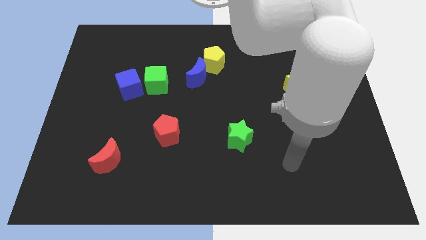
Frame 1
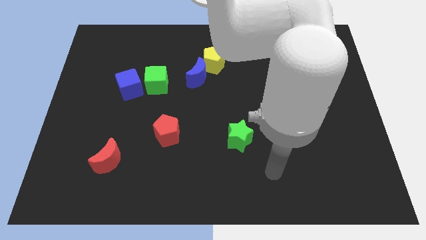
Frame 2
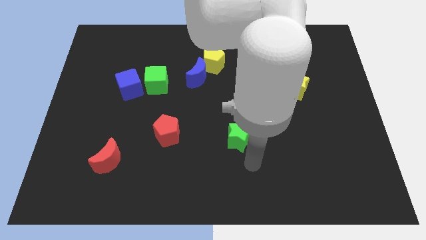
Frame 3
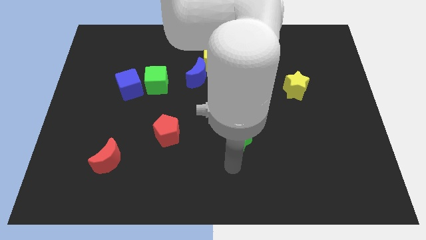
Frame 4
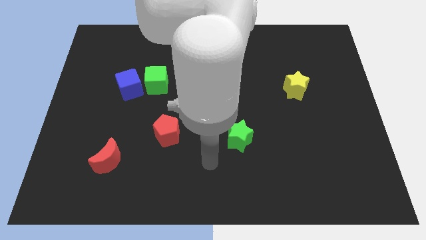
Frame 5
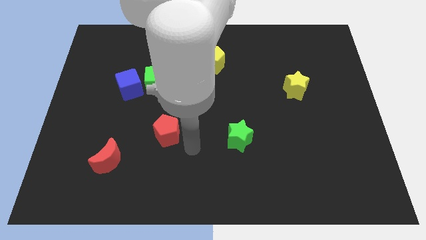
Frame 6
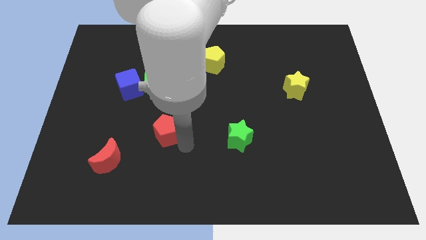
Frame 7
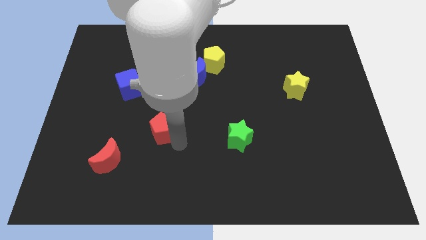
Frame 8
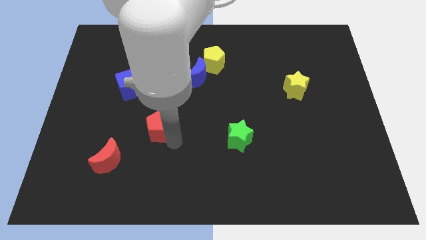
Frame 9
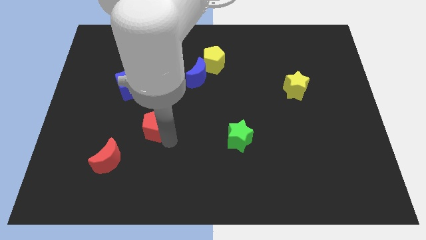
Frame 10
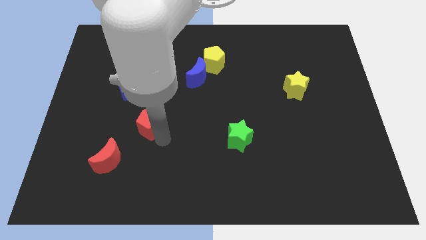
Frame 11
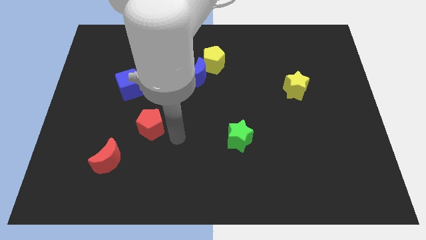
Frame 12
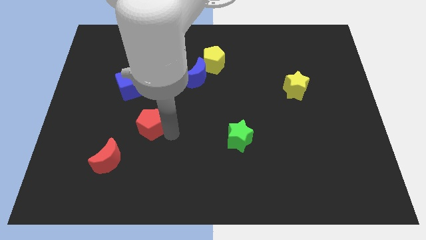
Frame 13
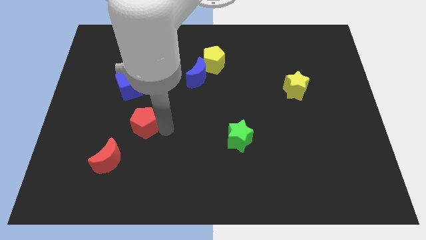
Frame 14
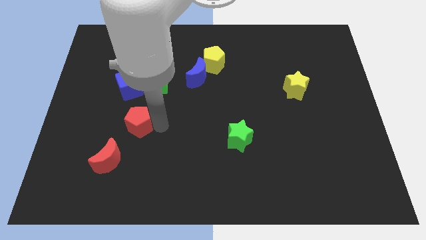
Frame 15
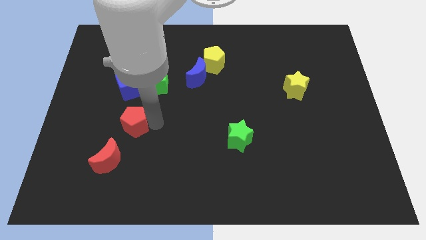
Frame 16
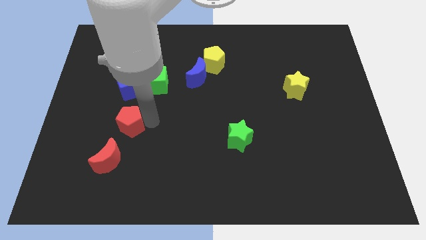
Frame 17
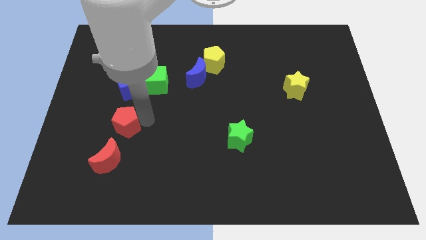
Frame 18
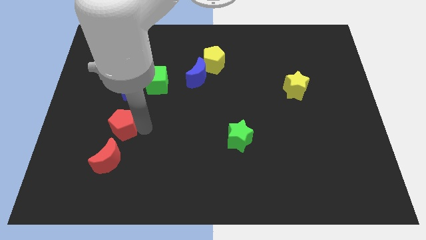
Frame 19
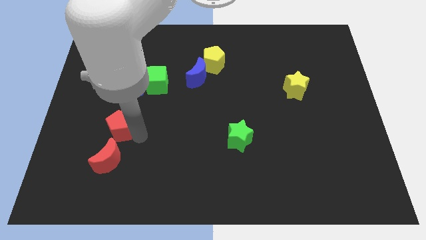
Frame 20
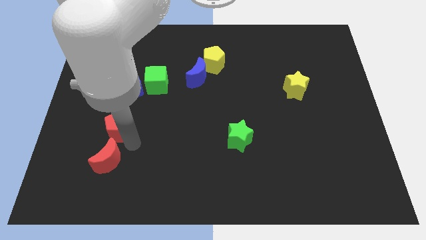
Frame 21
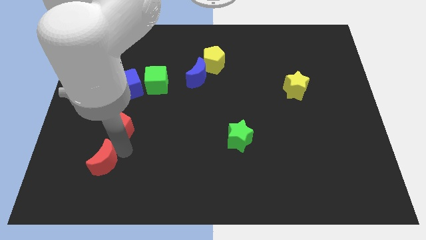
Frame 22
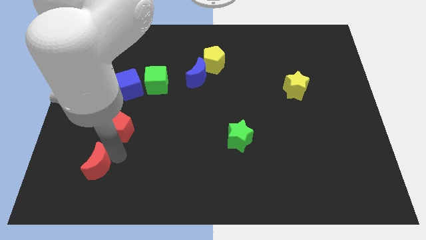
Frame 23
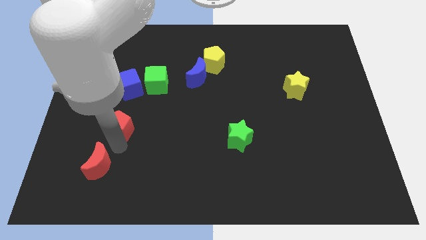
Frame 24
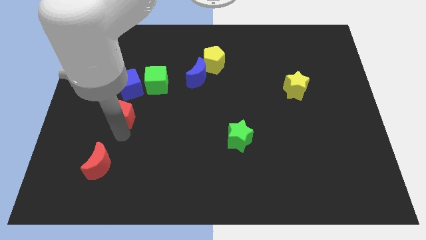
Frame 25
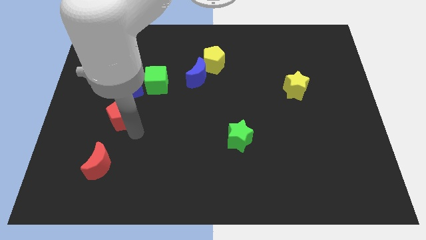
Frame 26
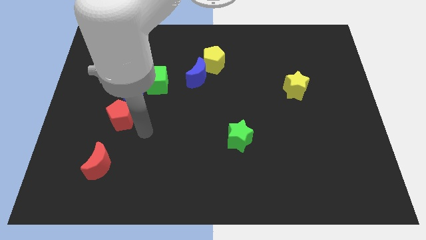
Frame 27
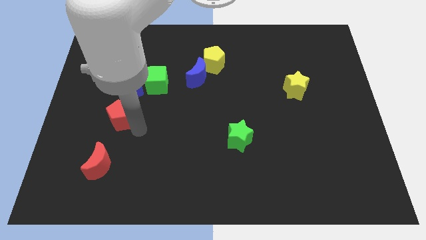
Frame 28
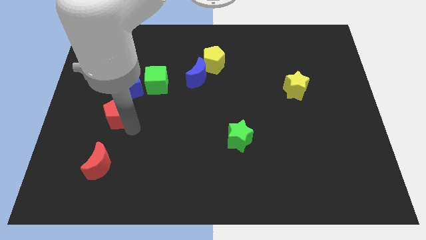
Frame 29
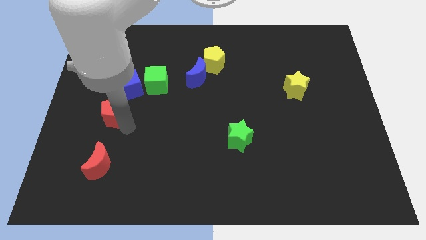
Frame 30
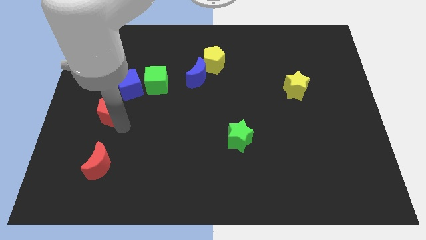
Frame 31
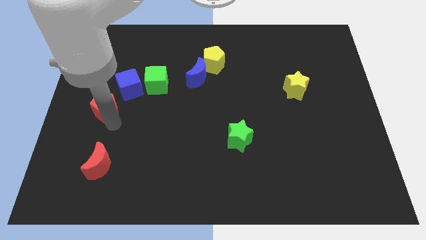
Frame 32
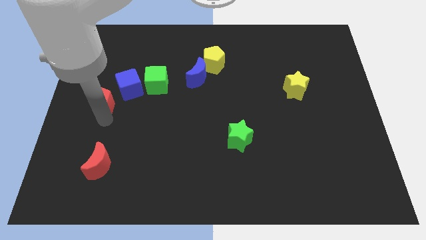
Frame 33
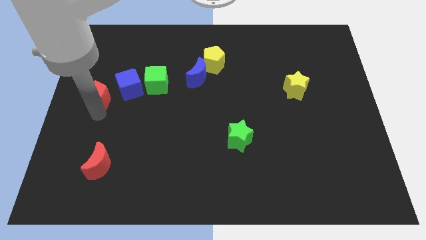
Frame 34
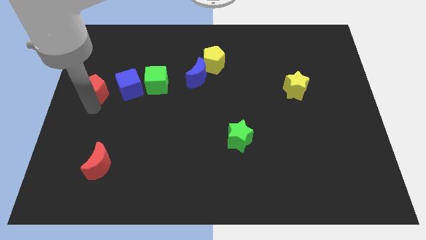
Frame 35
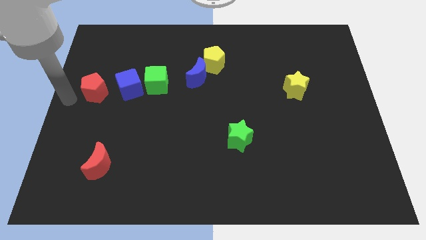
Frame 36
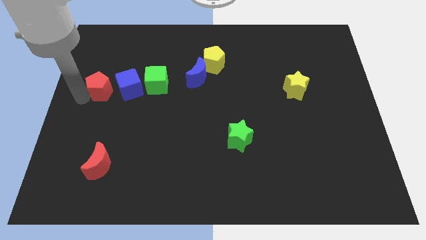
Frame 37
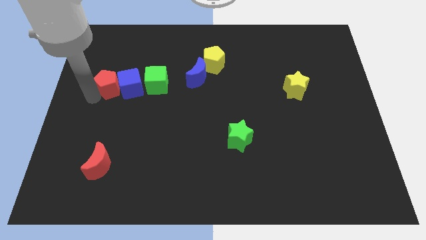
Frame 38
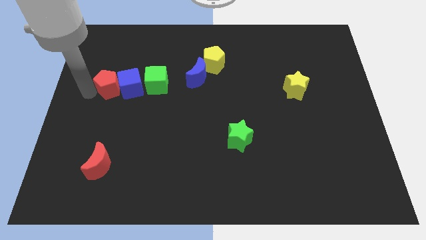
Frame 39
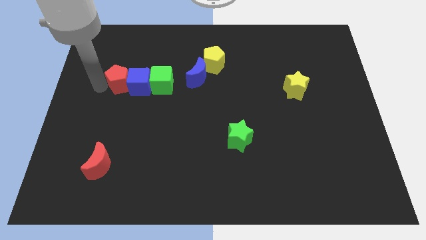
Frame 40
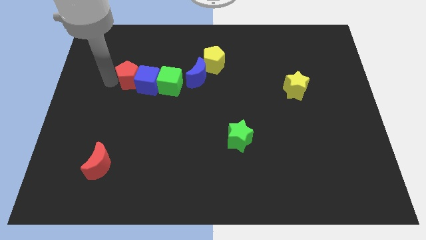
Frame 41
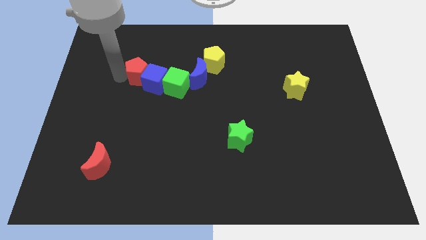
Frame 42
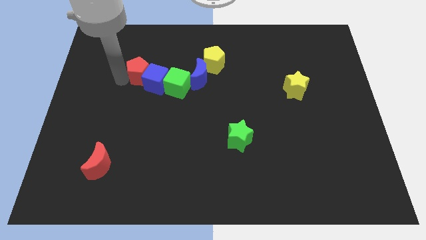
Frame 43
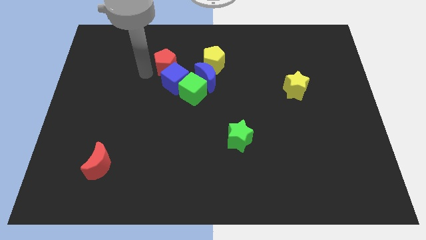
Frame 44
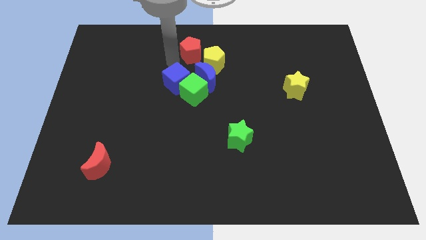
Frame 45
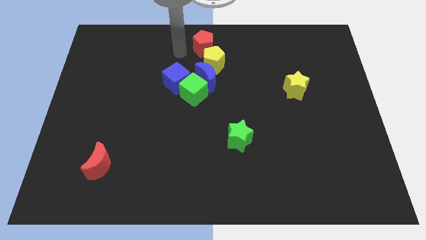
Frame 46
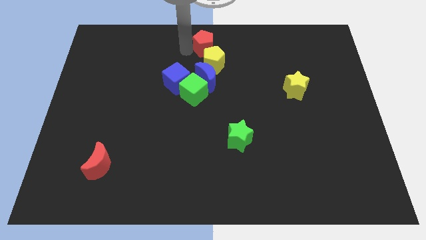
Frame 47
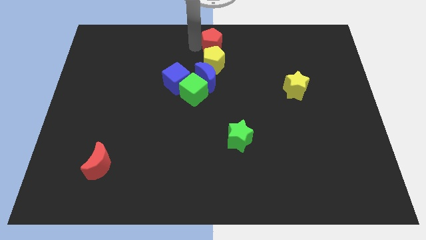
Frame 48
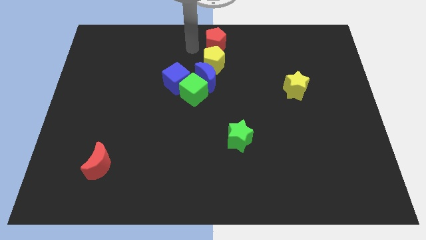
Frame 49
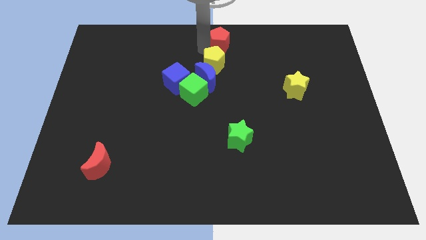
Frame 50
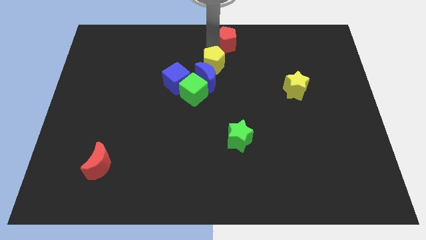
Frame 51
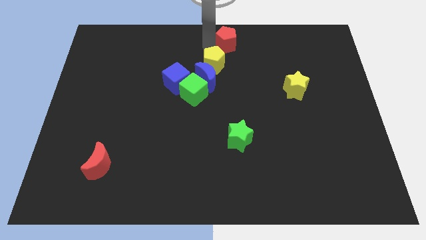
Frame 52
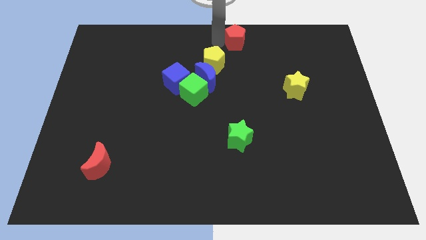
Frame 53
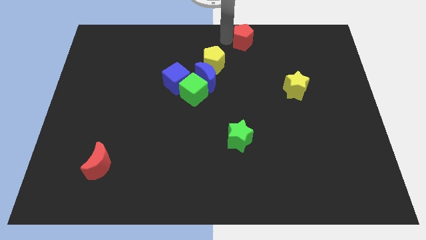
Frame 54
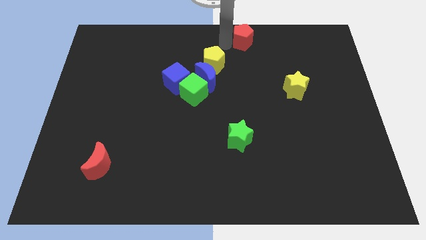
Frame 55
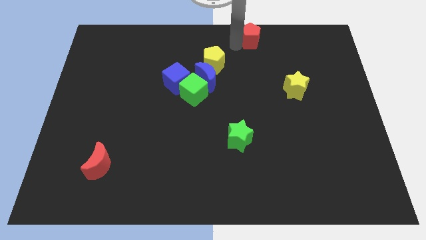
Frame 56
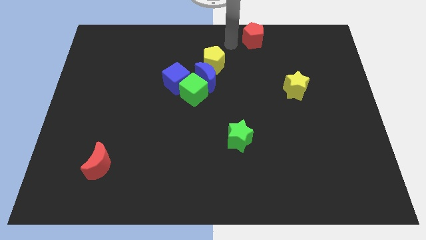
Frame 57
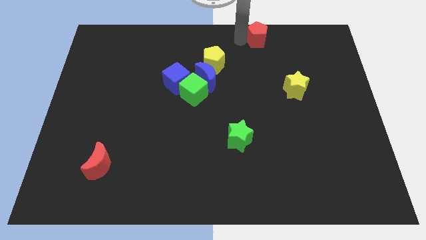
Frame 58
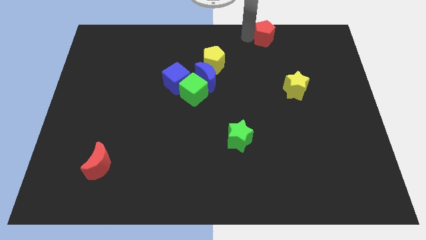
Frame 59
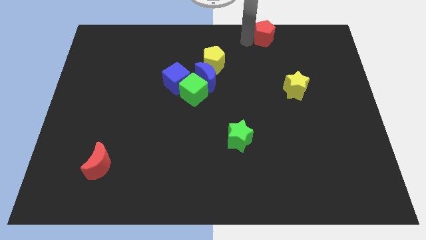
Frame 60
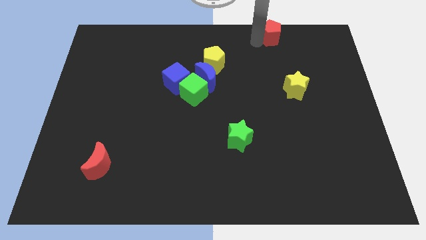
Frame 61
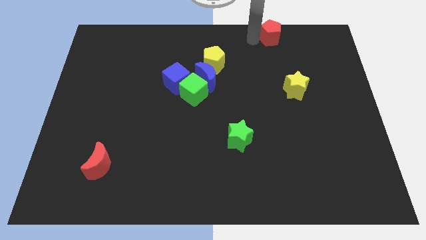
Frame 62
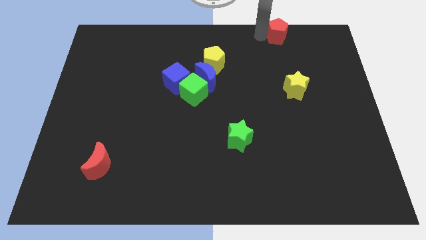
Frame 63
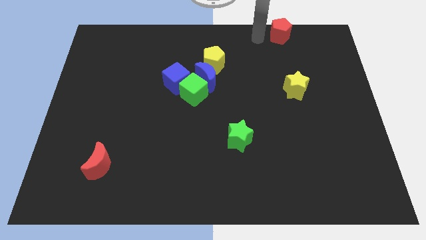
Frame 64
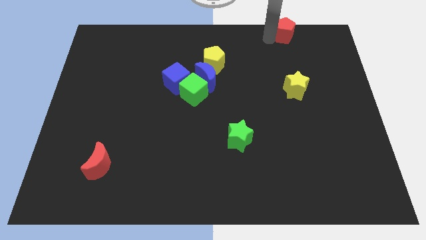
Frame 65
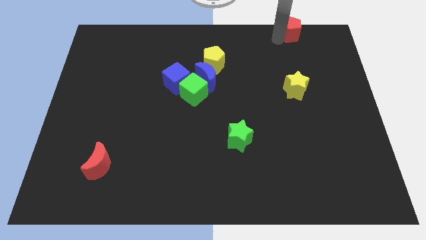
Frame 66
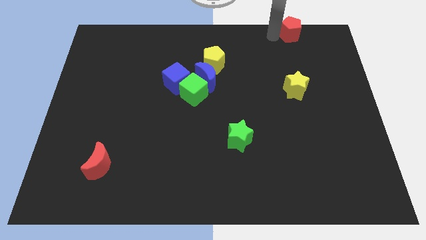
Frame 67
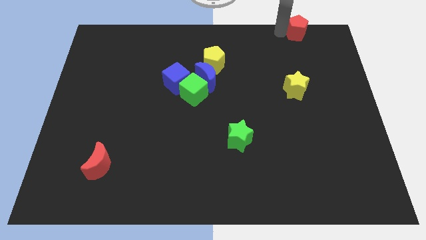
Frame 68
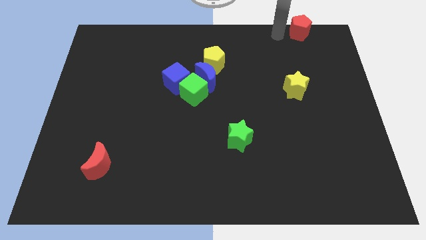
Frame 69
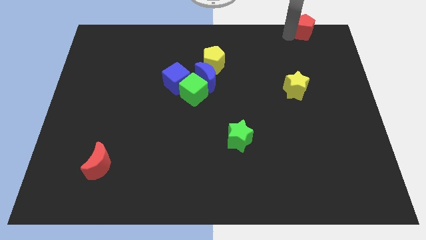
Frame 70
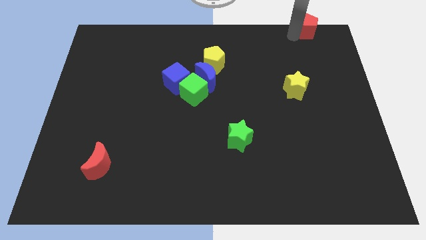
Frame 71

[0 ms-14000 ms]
put the red pentagon to the top right of the board

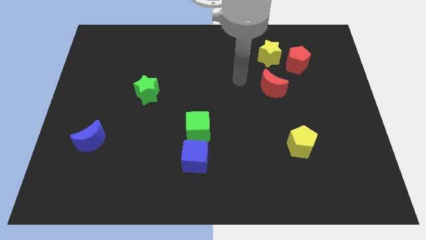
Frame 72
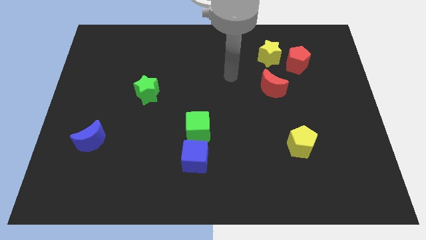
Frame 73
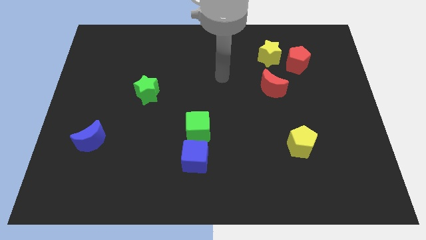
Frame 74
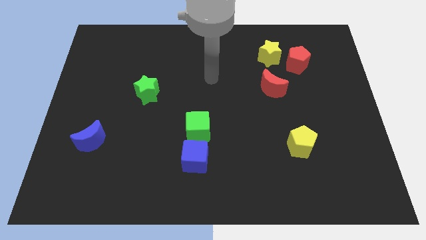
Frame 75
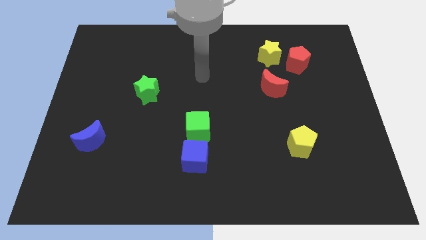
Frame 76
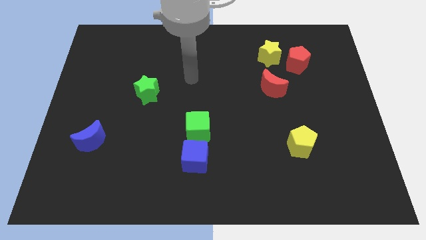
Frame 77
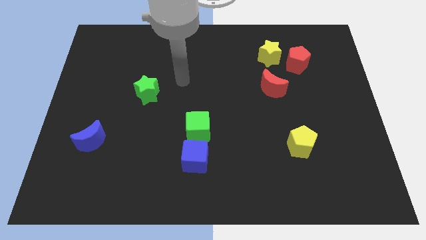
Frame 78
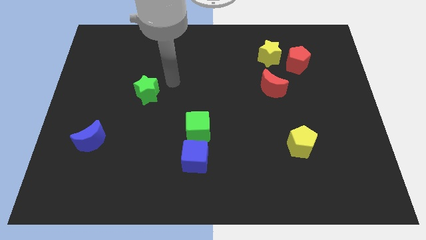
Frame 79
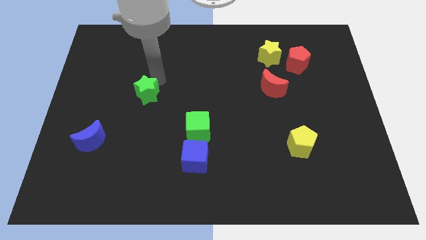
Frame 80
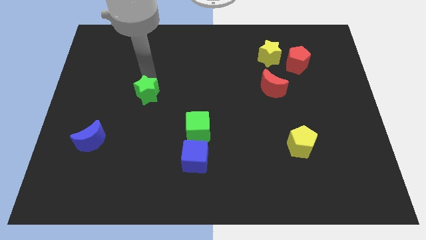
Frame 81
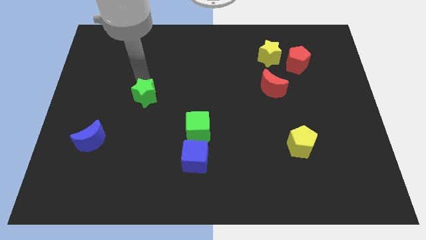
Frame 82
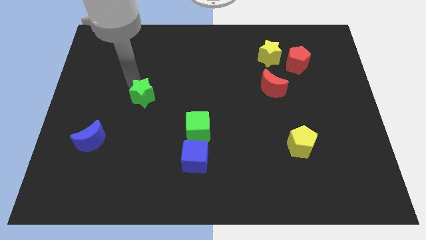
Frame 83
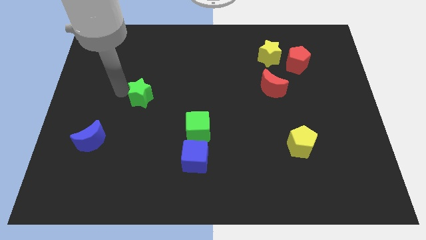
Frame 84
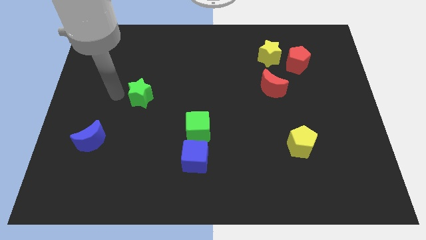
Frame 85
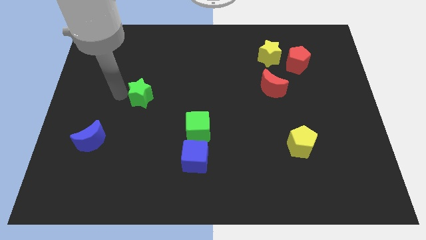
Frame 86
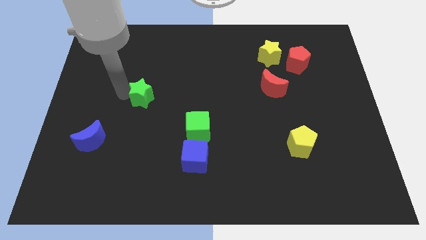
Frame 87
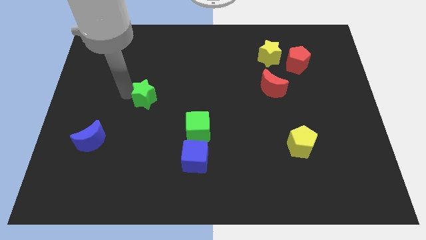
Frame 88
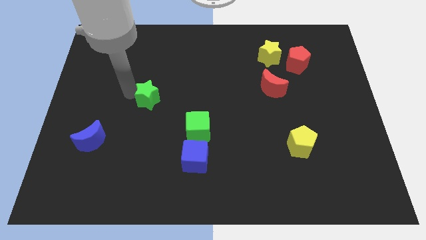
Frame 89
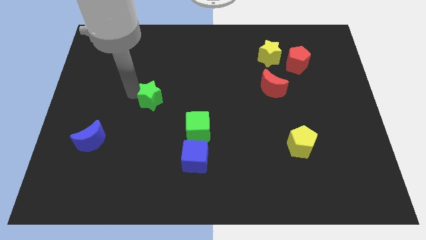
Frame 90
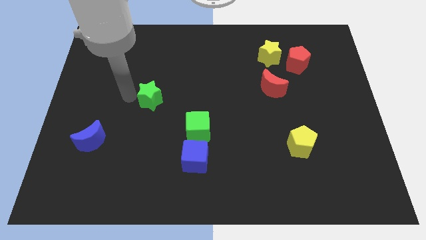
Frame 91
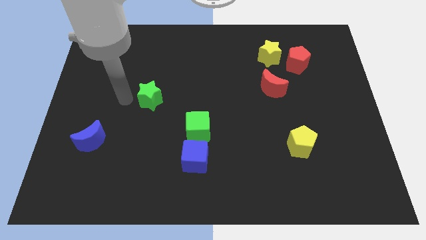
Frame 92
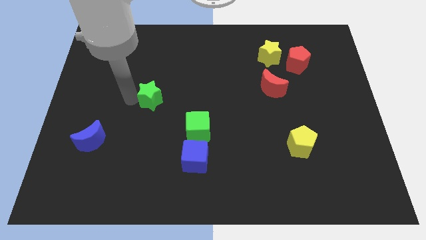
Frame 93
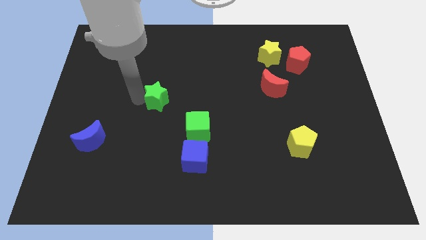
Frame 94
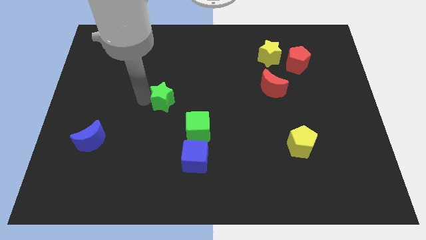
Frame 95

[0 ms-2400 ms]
push the green star to the center of the board
